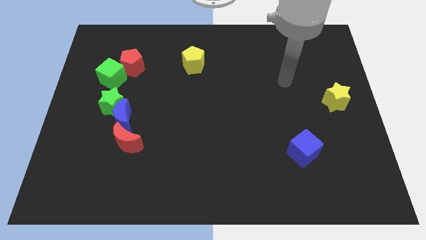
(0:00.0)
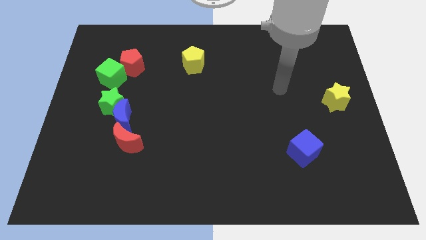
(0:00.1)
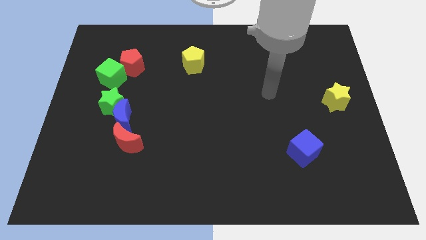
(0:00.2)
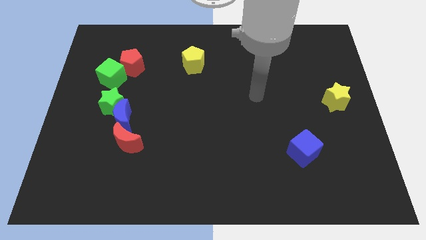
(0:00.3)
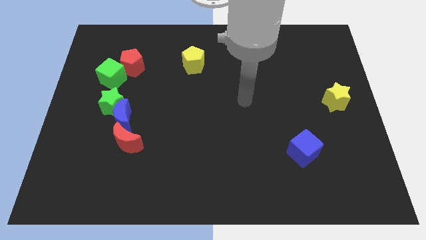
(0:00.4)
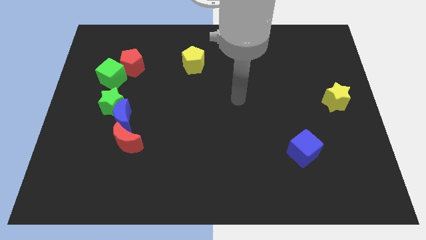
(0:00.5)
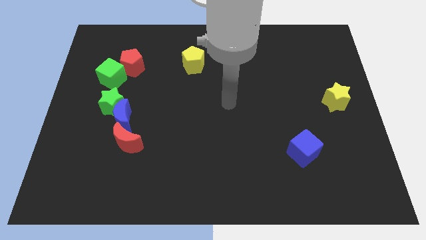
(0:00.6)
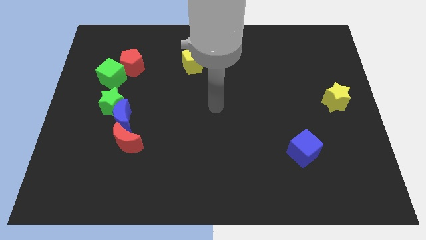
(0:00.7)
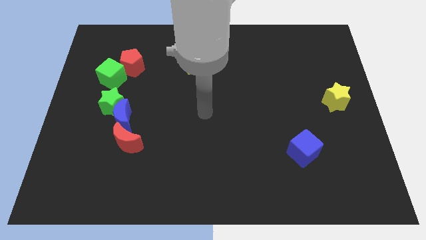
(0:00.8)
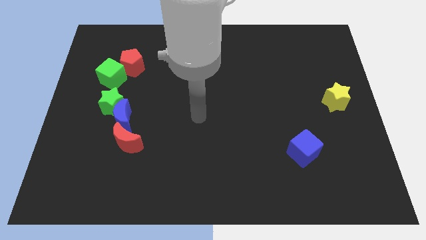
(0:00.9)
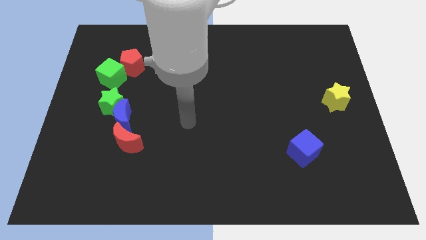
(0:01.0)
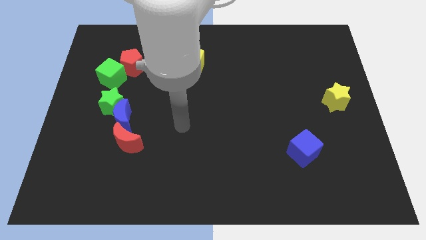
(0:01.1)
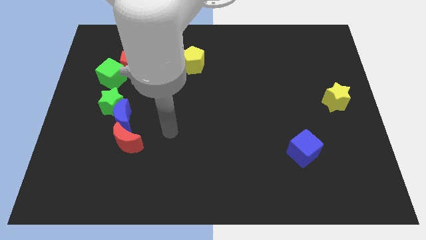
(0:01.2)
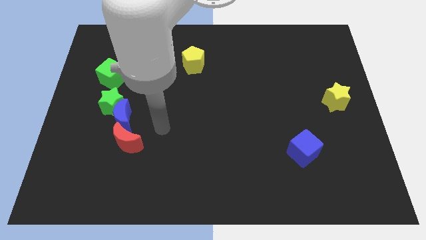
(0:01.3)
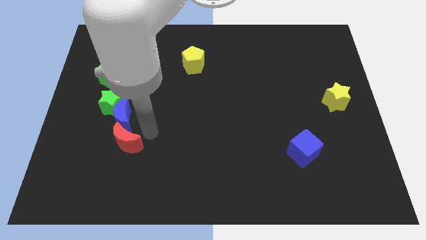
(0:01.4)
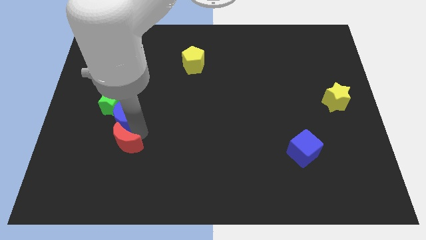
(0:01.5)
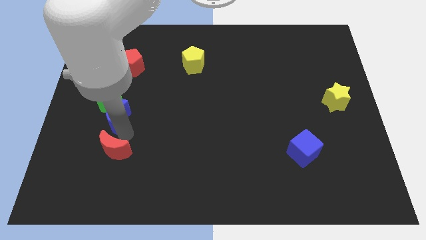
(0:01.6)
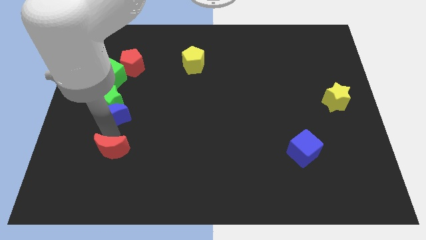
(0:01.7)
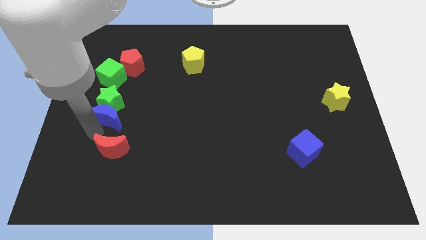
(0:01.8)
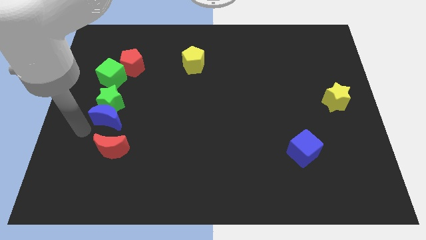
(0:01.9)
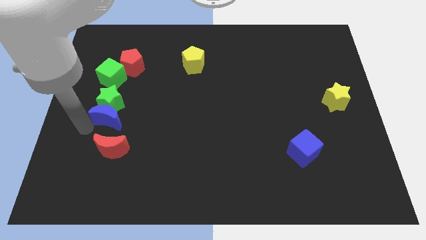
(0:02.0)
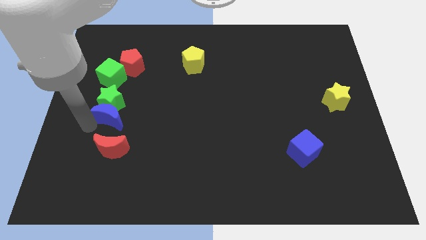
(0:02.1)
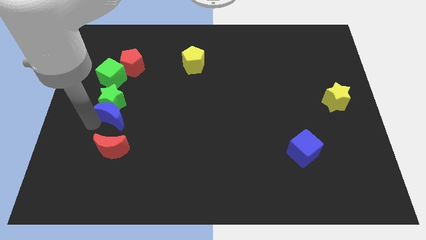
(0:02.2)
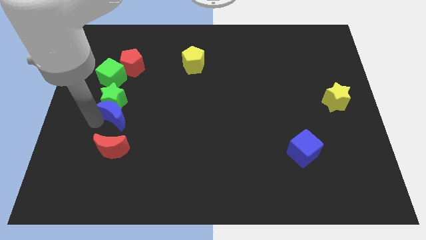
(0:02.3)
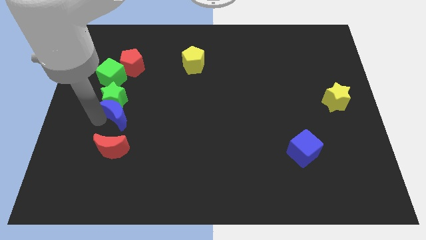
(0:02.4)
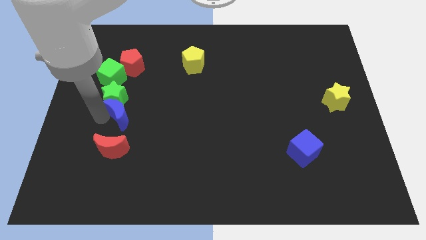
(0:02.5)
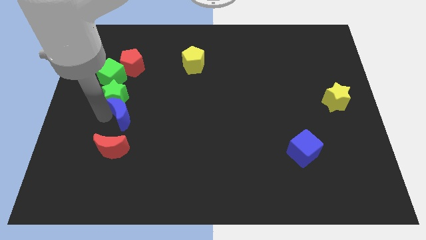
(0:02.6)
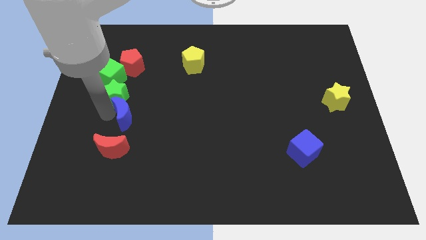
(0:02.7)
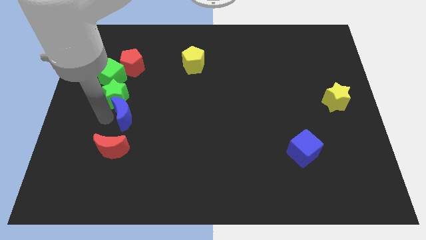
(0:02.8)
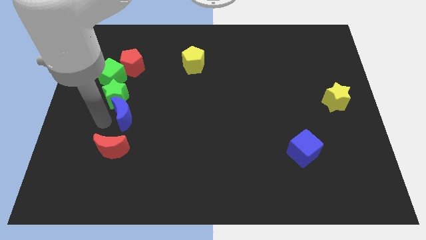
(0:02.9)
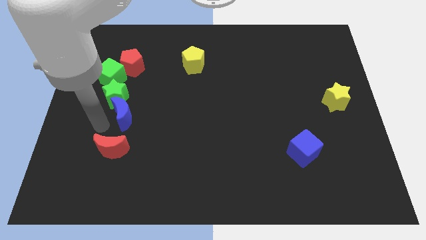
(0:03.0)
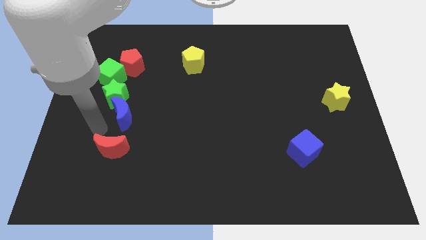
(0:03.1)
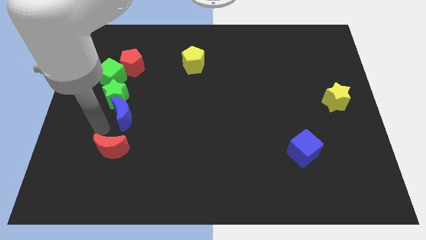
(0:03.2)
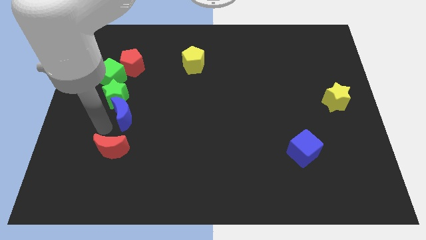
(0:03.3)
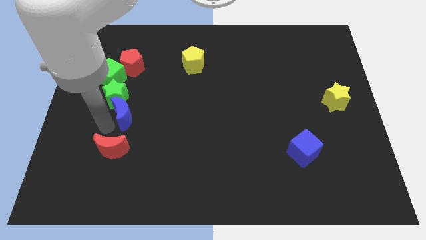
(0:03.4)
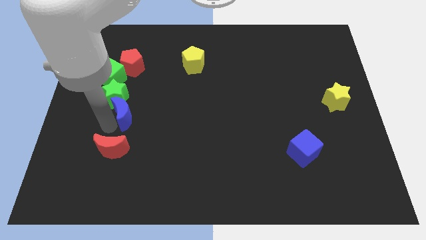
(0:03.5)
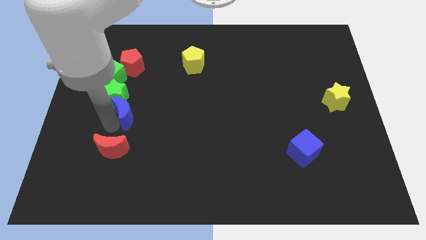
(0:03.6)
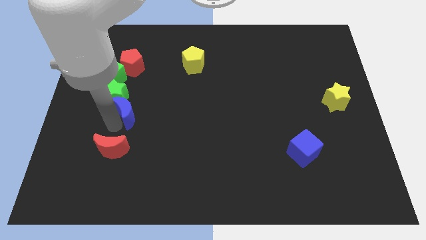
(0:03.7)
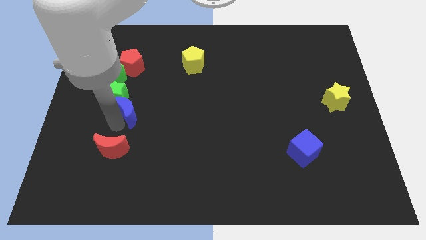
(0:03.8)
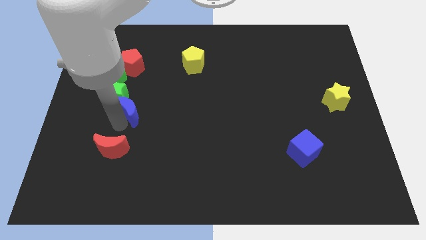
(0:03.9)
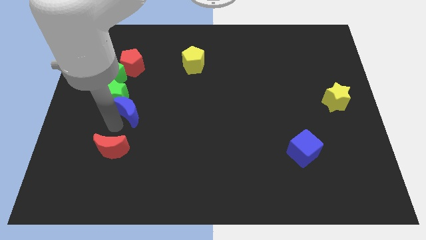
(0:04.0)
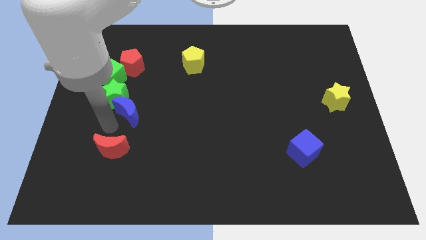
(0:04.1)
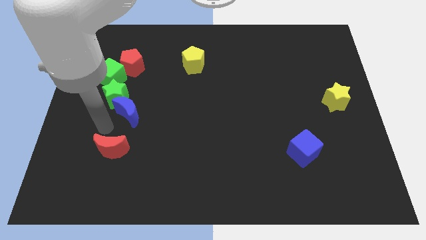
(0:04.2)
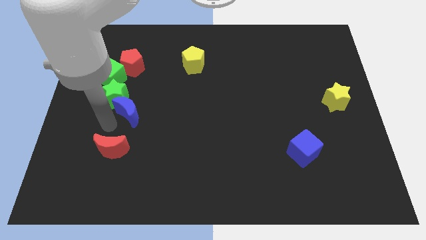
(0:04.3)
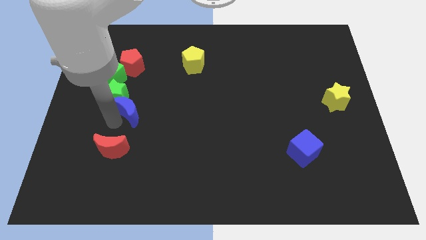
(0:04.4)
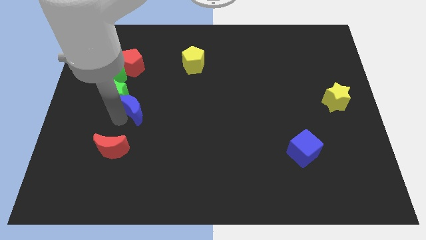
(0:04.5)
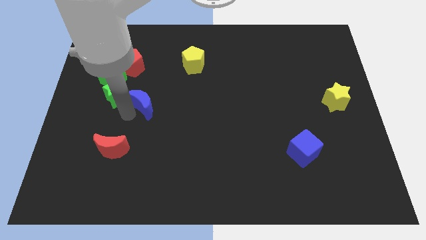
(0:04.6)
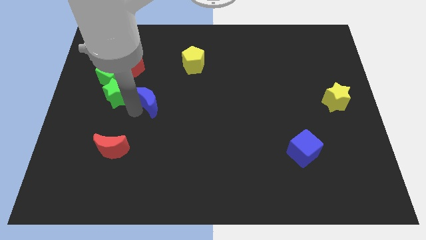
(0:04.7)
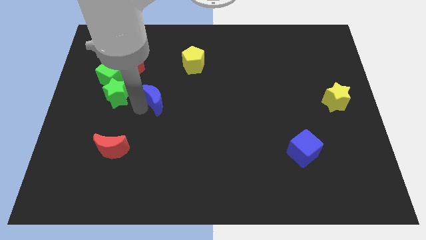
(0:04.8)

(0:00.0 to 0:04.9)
move the blue moon away from the green star and red moon

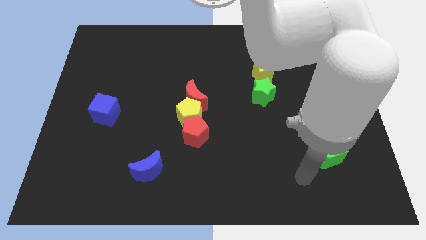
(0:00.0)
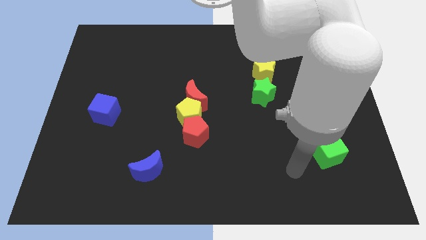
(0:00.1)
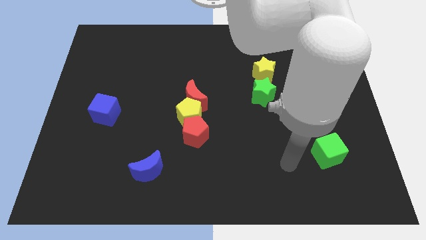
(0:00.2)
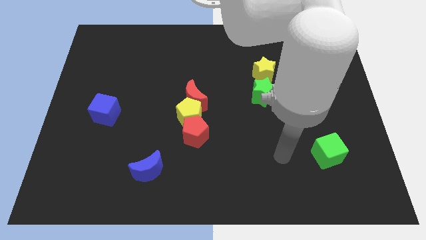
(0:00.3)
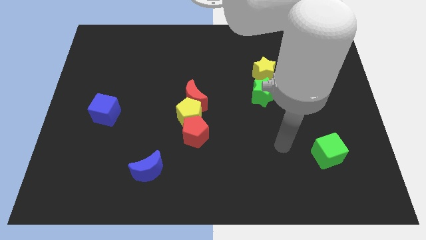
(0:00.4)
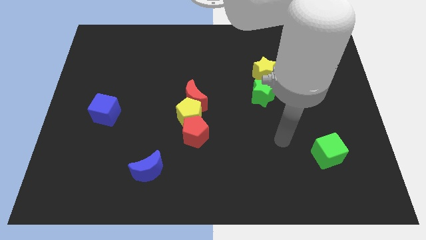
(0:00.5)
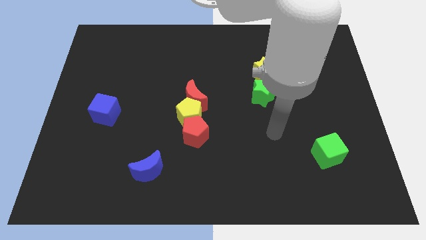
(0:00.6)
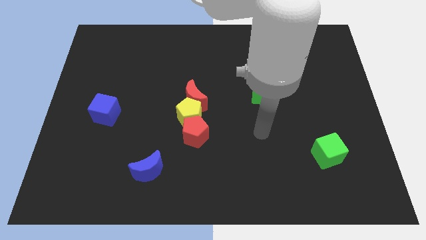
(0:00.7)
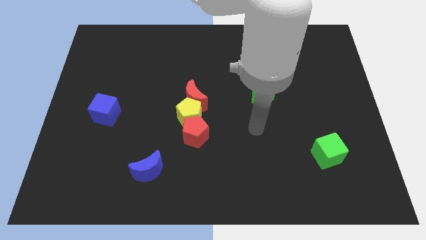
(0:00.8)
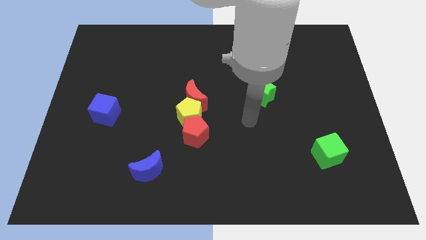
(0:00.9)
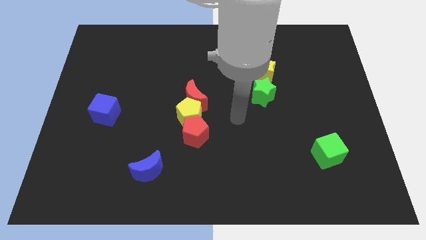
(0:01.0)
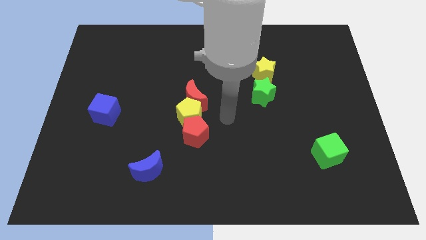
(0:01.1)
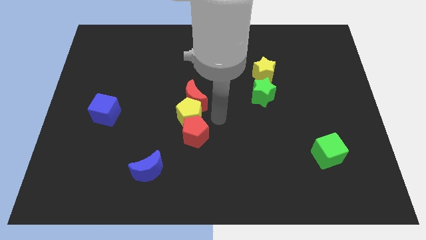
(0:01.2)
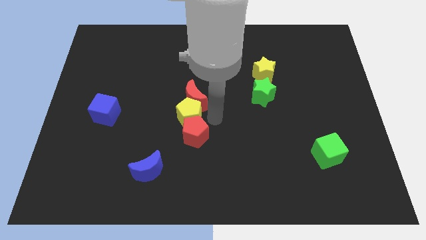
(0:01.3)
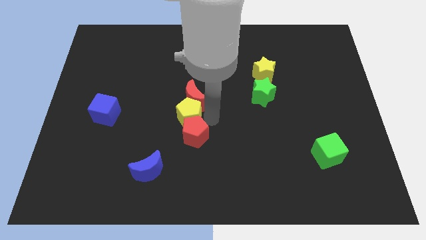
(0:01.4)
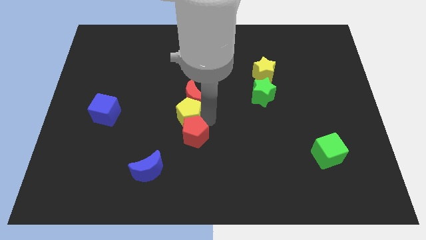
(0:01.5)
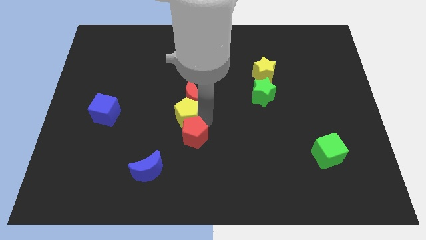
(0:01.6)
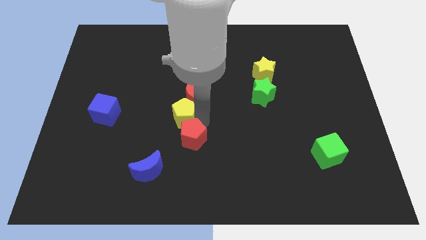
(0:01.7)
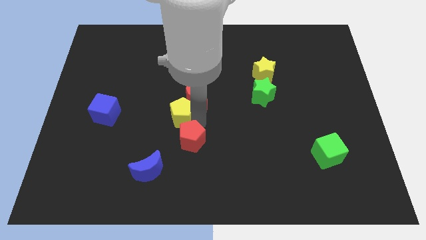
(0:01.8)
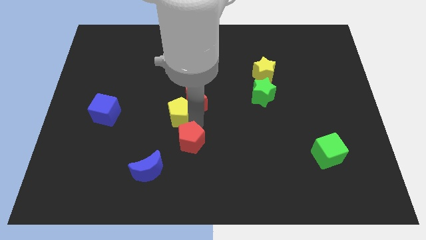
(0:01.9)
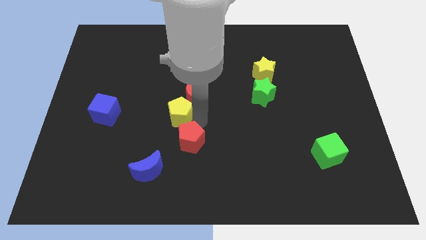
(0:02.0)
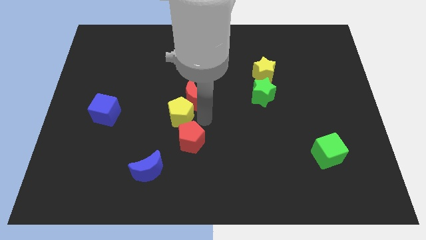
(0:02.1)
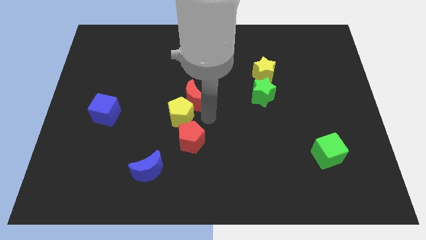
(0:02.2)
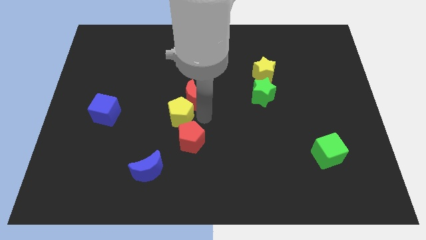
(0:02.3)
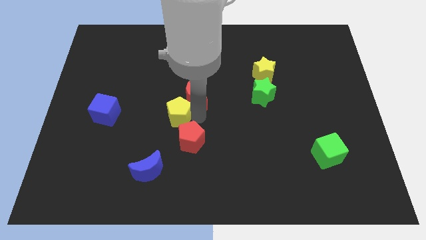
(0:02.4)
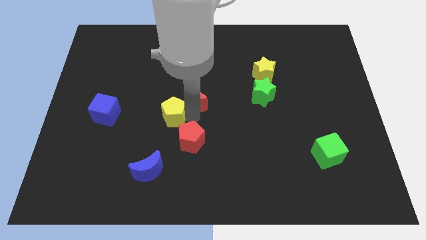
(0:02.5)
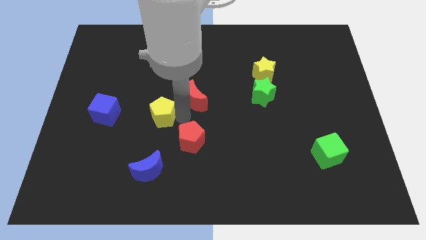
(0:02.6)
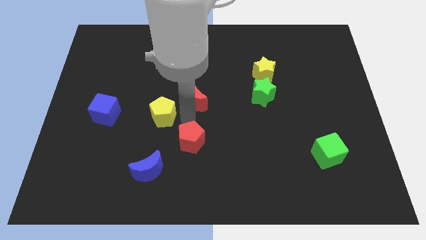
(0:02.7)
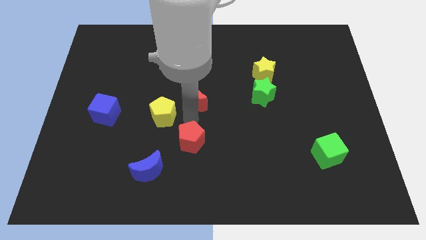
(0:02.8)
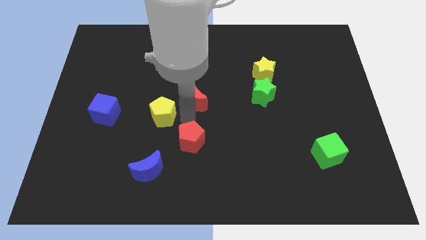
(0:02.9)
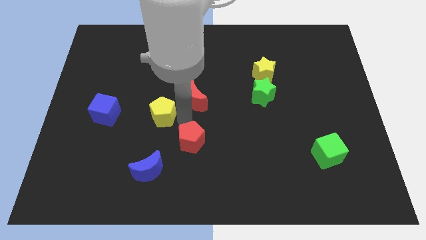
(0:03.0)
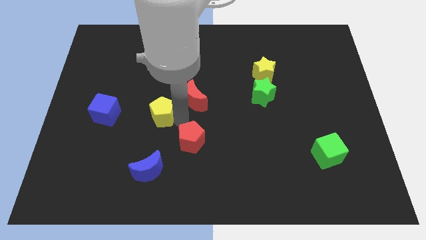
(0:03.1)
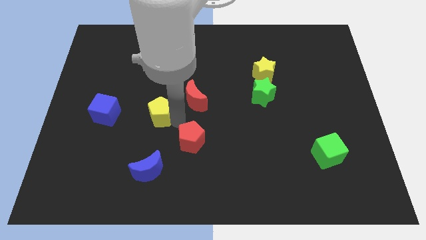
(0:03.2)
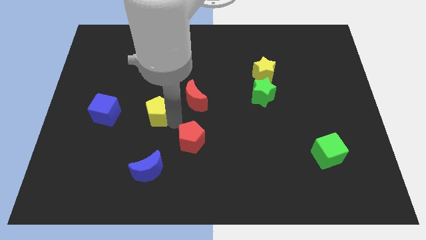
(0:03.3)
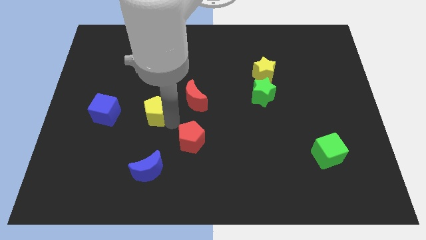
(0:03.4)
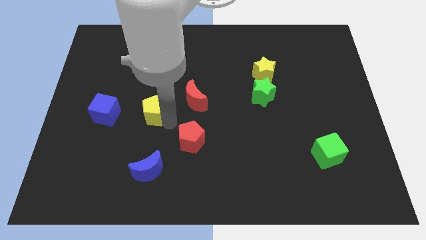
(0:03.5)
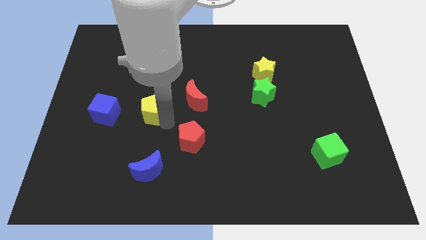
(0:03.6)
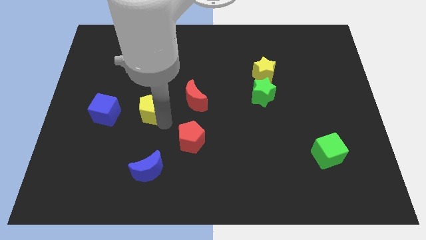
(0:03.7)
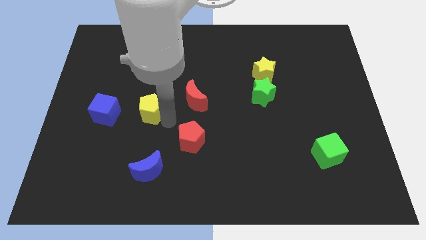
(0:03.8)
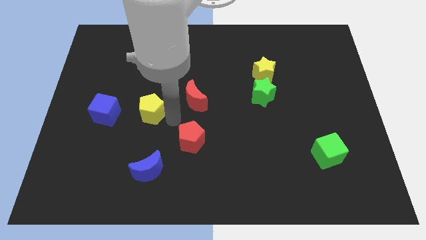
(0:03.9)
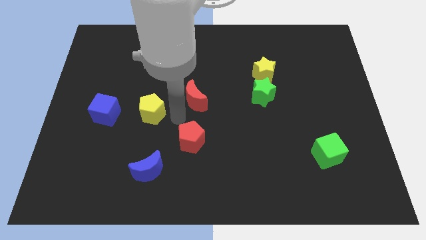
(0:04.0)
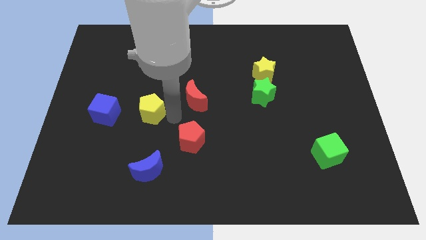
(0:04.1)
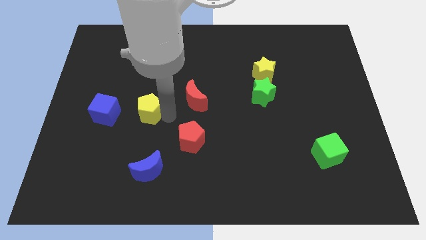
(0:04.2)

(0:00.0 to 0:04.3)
pull the yellow pentagon apart from the red moon and red pentagon

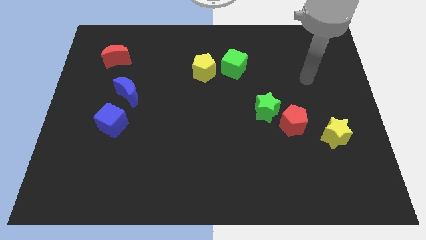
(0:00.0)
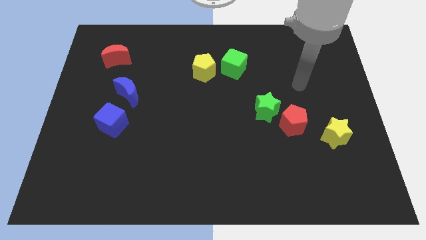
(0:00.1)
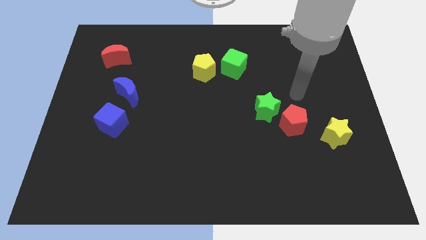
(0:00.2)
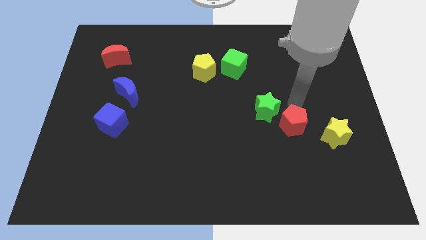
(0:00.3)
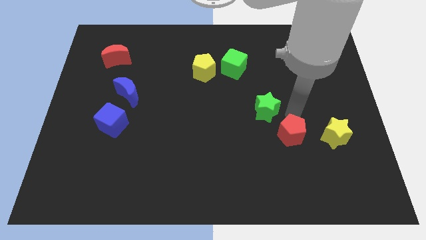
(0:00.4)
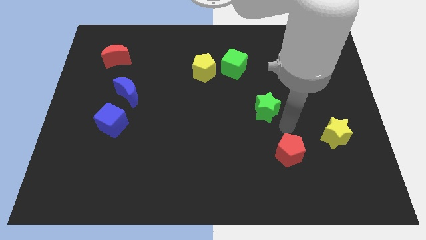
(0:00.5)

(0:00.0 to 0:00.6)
pull the green star apart from the red pentagon
